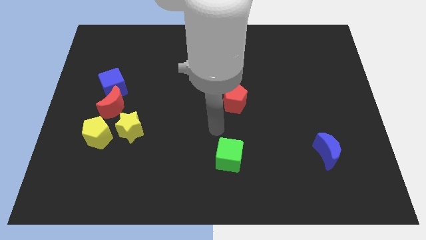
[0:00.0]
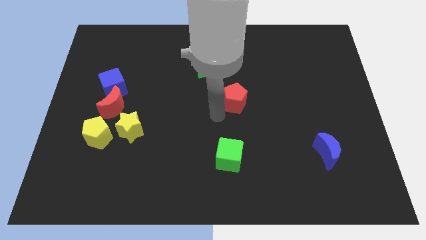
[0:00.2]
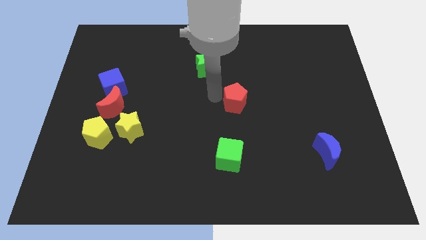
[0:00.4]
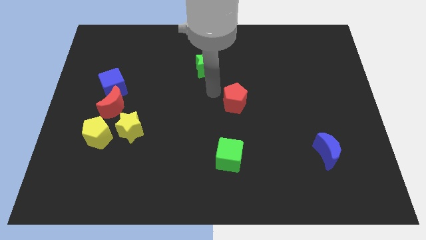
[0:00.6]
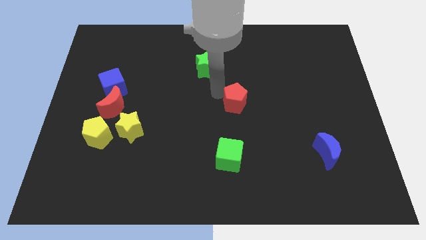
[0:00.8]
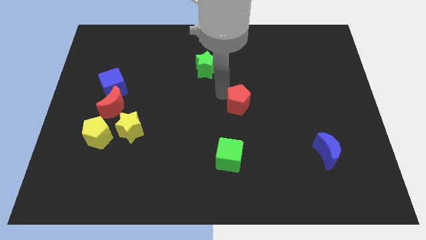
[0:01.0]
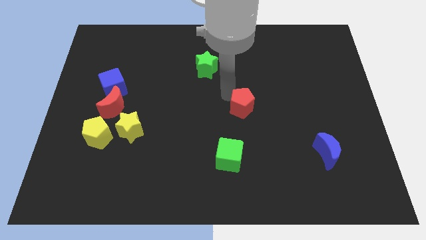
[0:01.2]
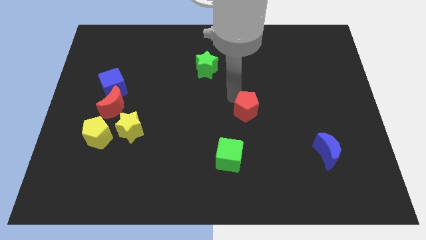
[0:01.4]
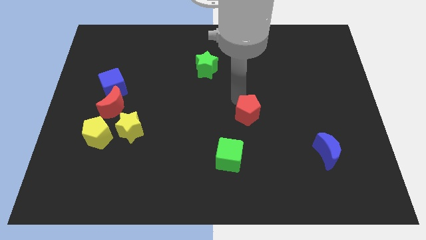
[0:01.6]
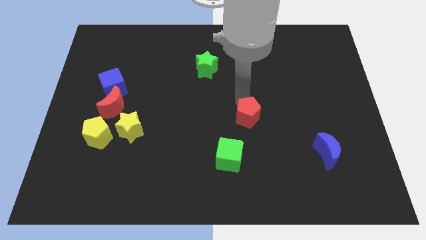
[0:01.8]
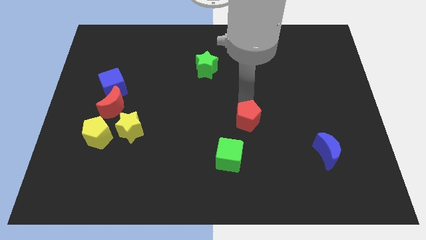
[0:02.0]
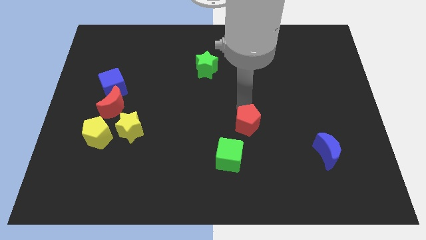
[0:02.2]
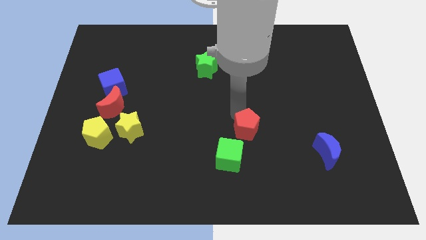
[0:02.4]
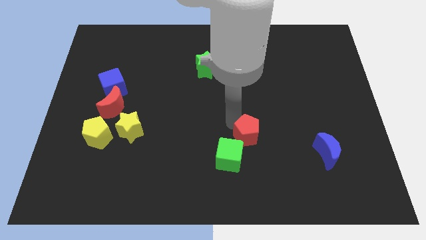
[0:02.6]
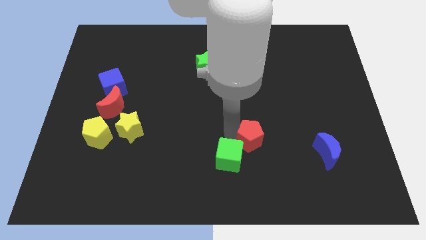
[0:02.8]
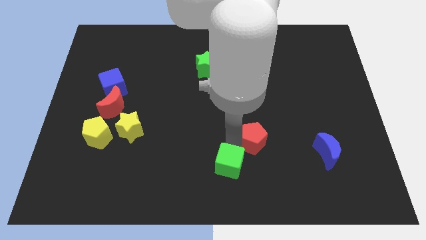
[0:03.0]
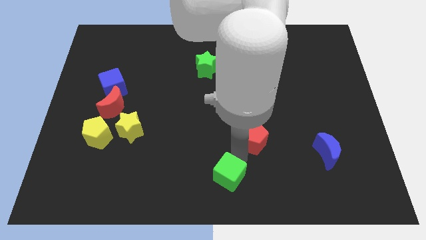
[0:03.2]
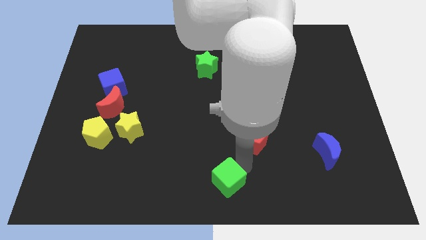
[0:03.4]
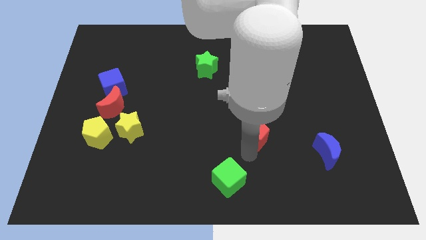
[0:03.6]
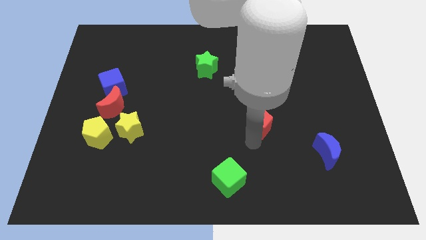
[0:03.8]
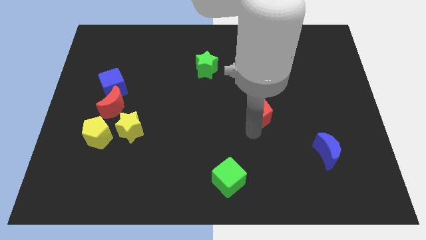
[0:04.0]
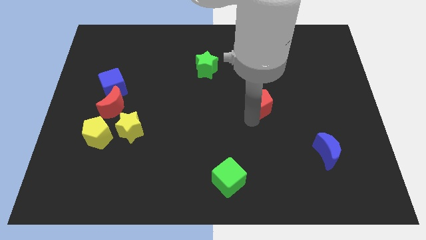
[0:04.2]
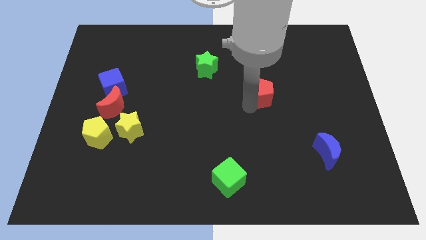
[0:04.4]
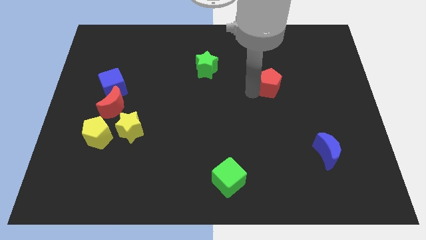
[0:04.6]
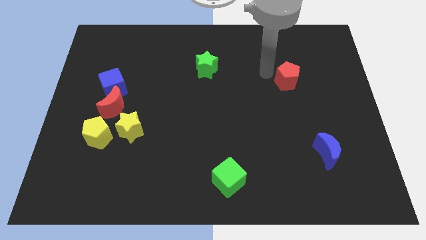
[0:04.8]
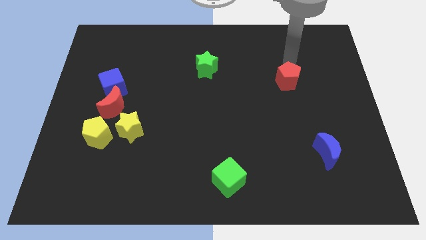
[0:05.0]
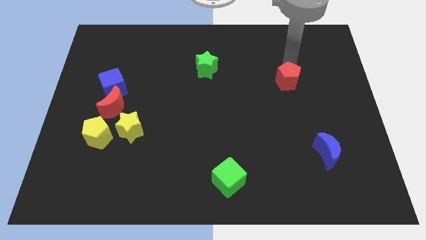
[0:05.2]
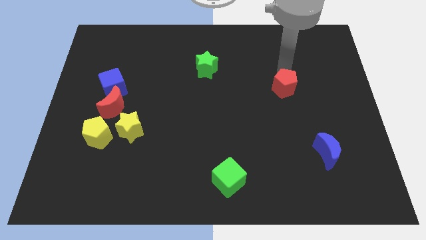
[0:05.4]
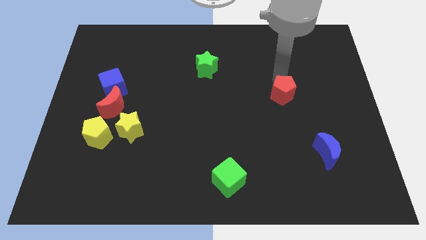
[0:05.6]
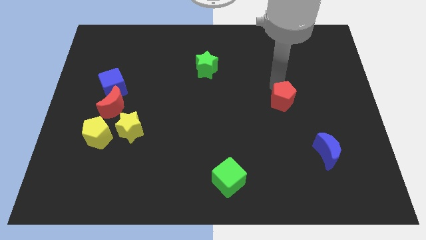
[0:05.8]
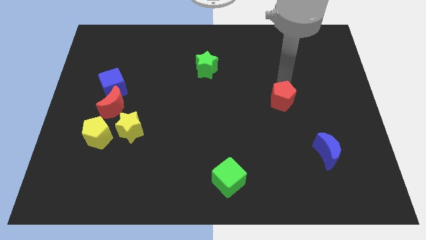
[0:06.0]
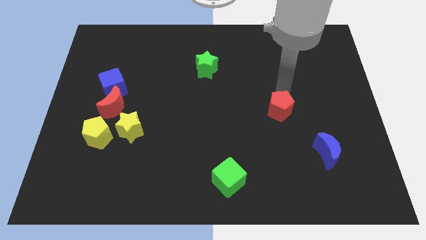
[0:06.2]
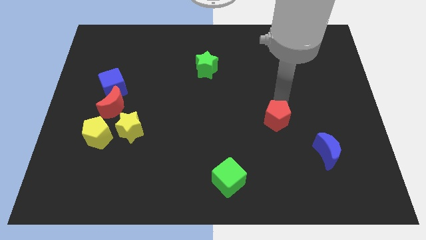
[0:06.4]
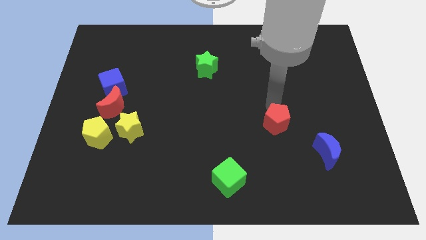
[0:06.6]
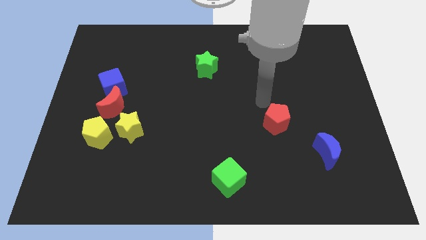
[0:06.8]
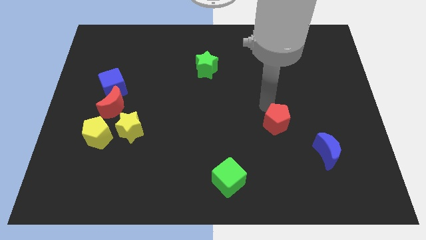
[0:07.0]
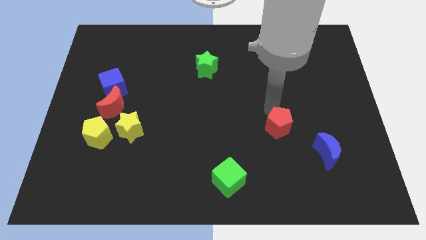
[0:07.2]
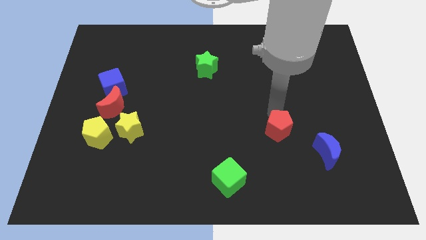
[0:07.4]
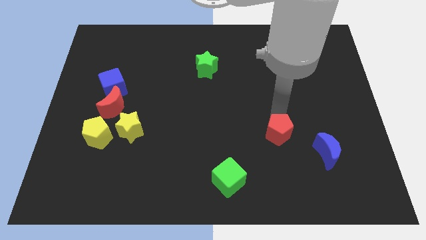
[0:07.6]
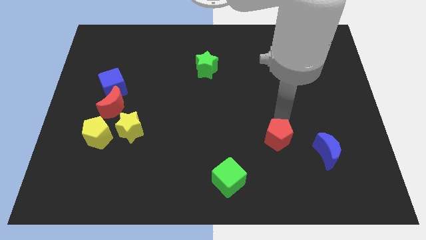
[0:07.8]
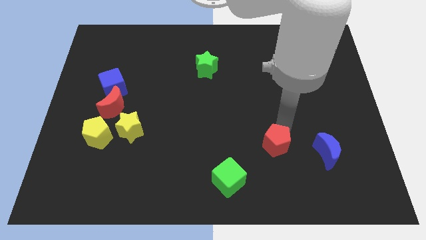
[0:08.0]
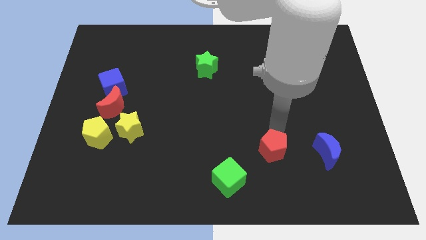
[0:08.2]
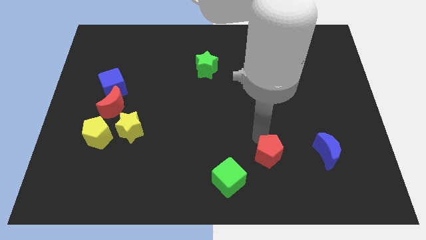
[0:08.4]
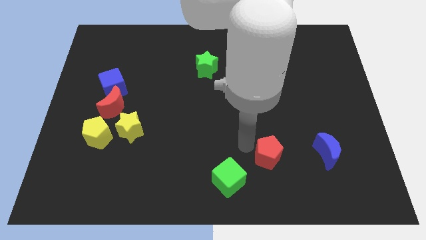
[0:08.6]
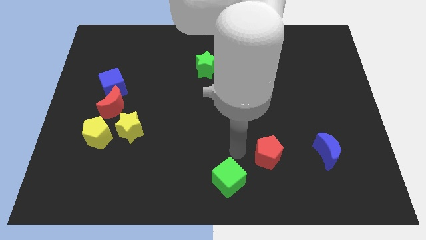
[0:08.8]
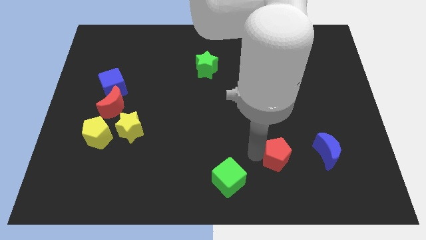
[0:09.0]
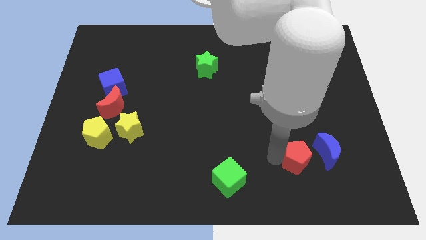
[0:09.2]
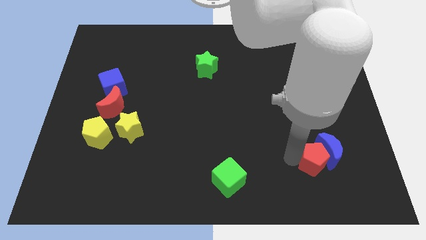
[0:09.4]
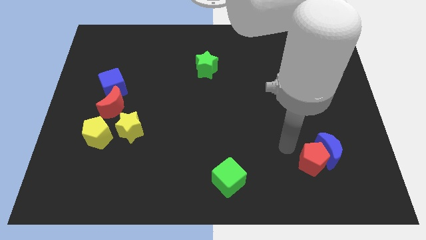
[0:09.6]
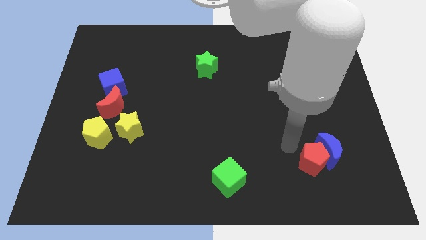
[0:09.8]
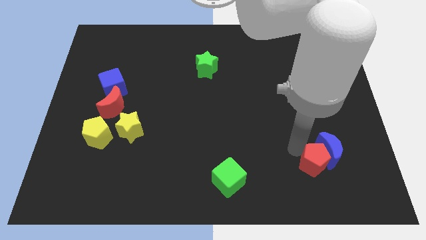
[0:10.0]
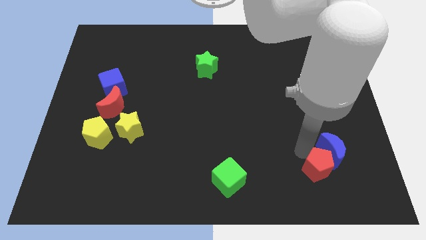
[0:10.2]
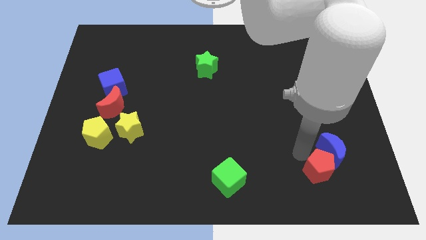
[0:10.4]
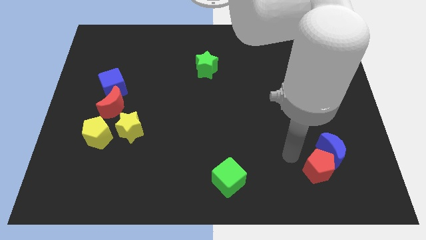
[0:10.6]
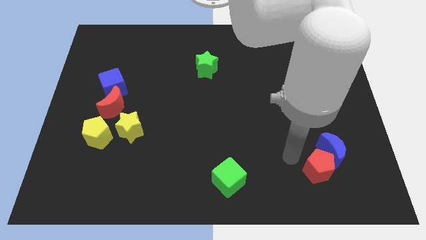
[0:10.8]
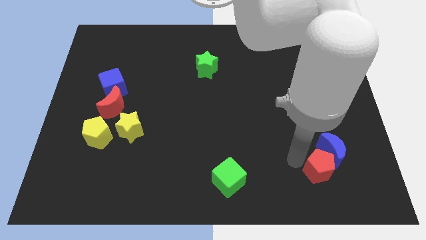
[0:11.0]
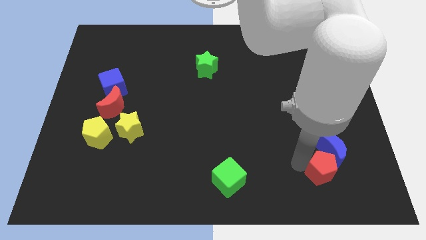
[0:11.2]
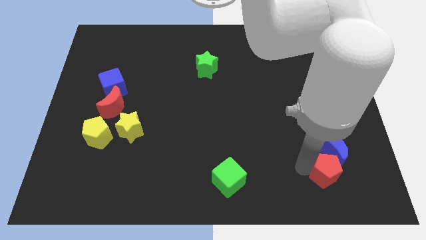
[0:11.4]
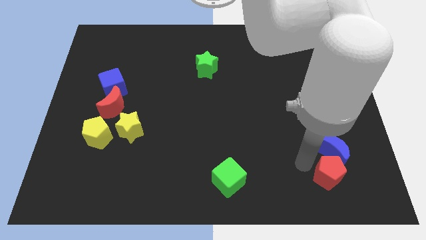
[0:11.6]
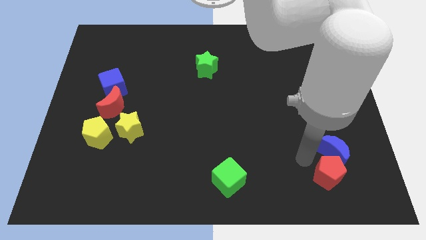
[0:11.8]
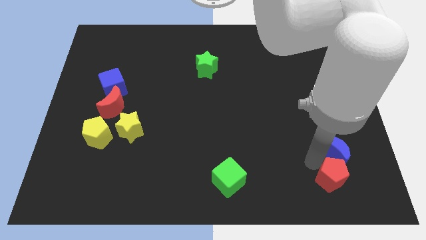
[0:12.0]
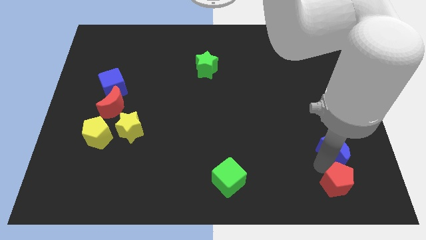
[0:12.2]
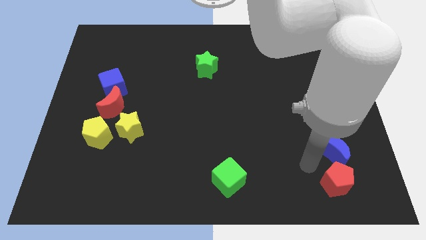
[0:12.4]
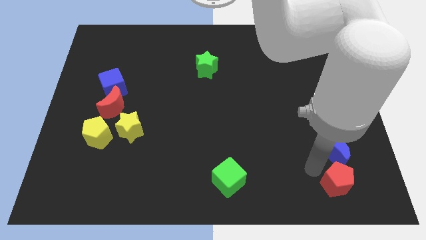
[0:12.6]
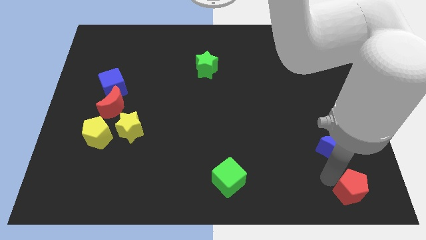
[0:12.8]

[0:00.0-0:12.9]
move the red pentagon to the bottom right

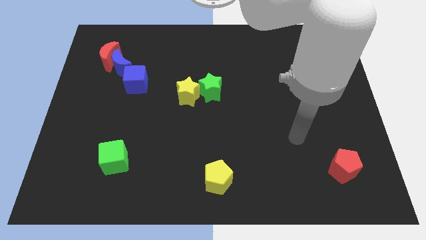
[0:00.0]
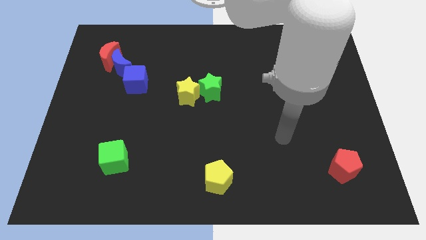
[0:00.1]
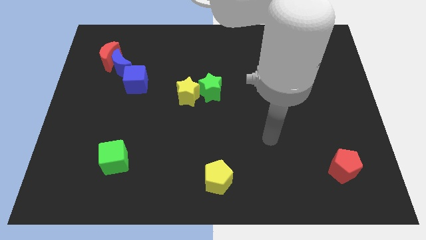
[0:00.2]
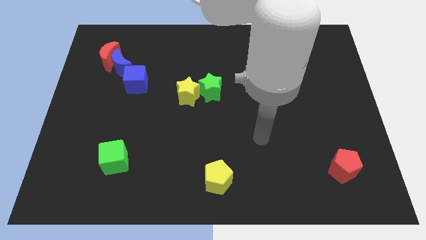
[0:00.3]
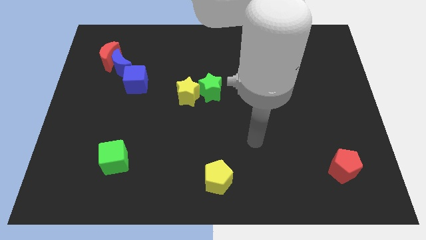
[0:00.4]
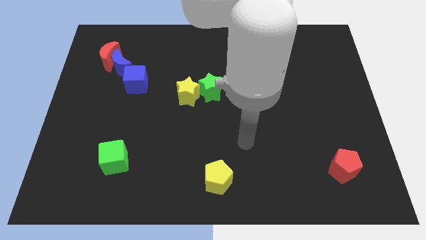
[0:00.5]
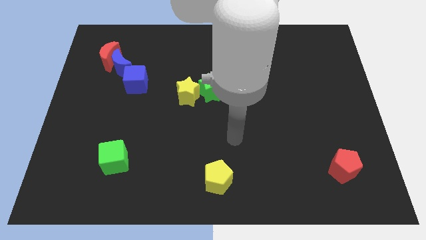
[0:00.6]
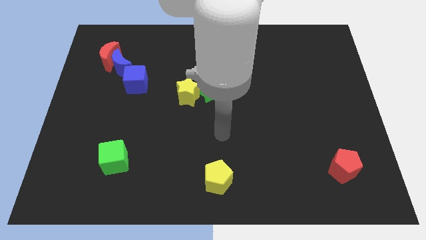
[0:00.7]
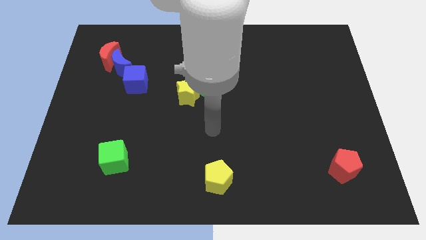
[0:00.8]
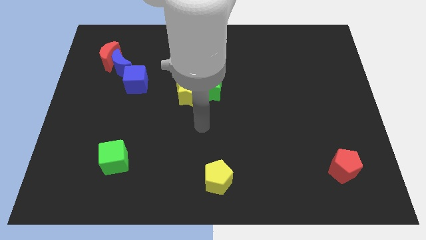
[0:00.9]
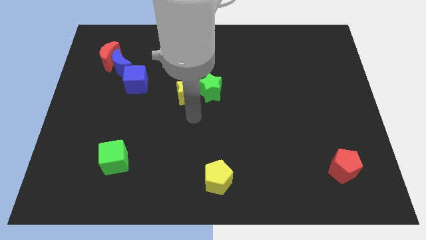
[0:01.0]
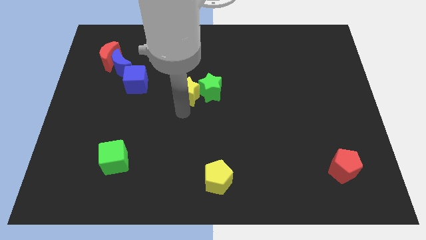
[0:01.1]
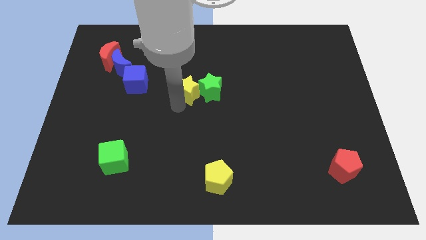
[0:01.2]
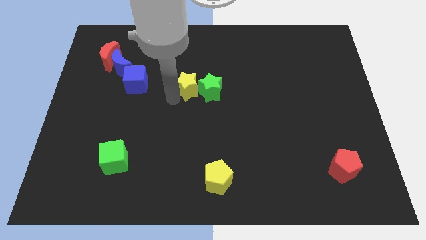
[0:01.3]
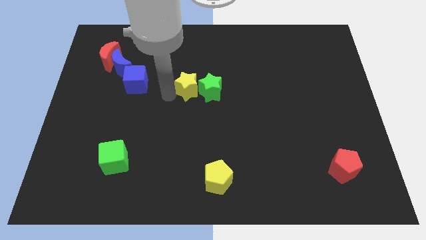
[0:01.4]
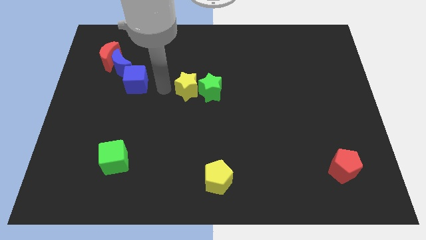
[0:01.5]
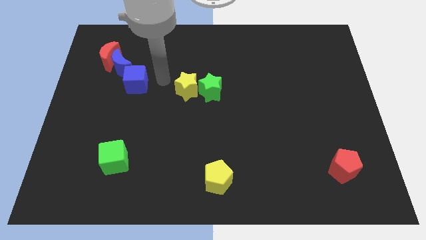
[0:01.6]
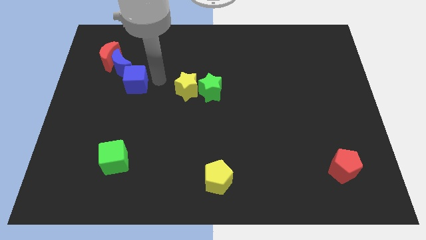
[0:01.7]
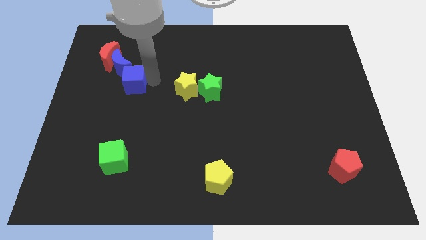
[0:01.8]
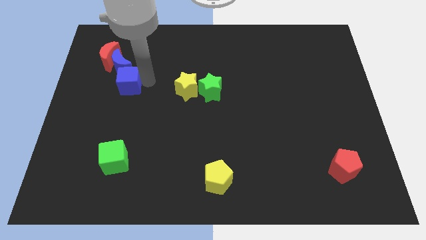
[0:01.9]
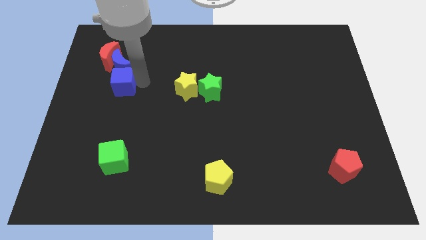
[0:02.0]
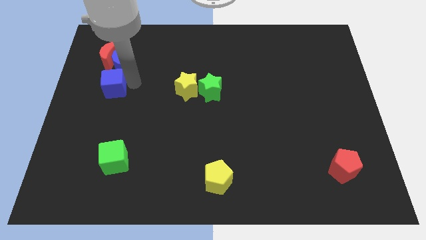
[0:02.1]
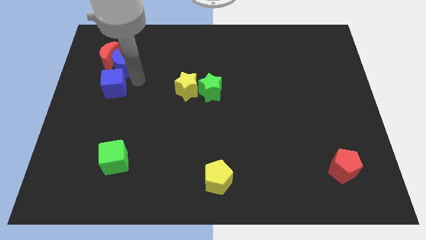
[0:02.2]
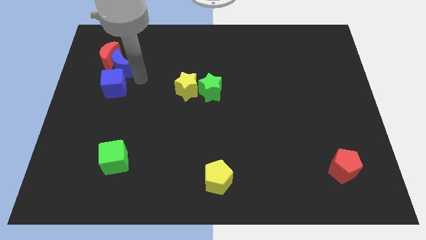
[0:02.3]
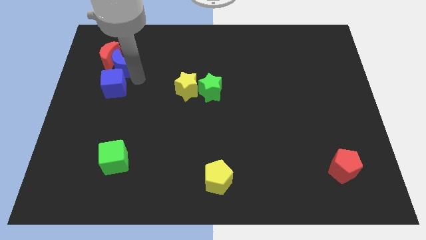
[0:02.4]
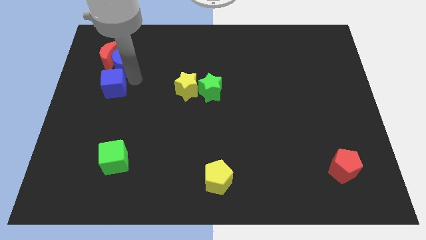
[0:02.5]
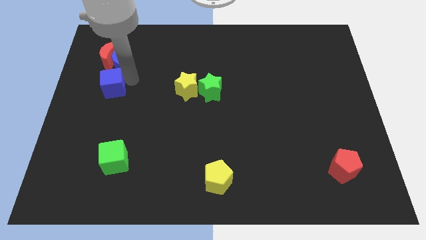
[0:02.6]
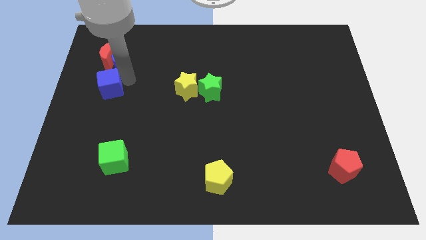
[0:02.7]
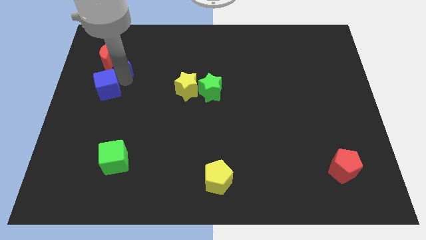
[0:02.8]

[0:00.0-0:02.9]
push the blue cube to the left side
